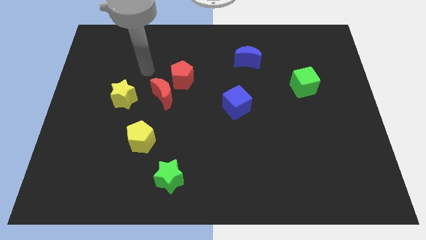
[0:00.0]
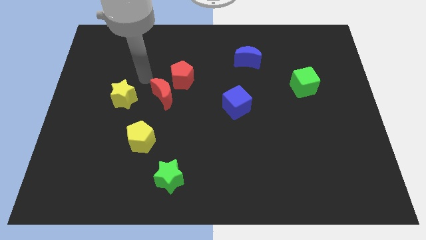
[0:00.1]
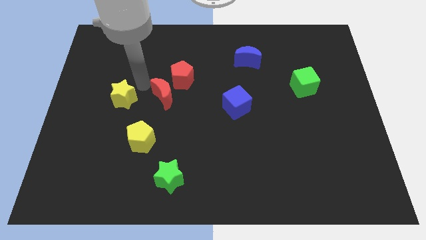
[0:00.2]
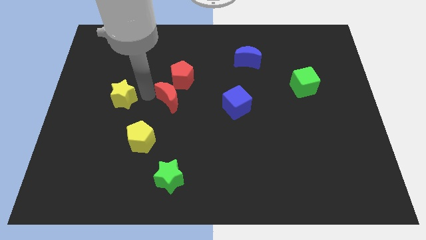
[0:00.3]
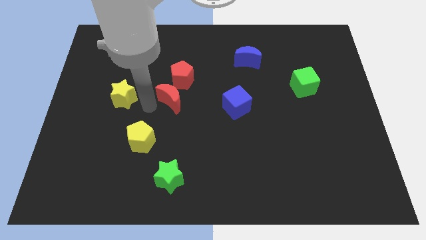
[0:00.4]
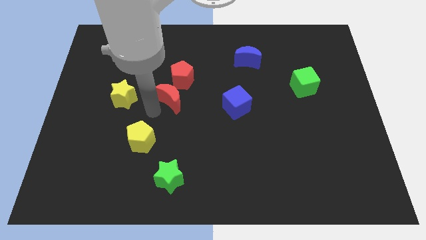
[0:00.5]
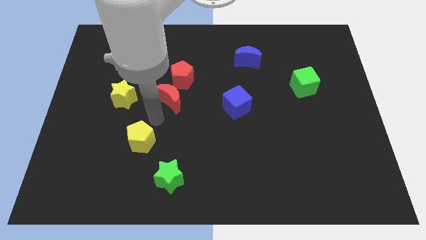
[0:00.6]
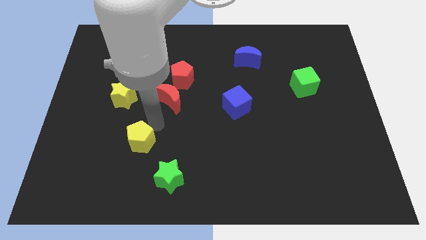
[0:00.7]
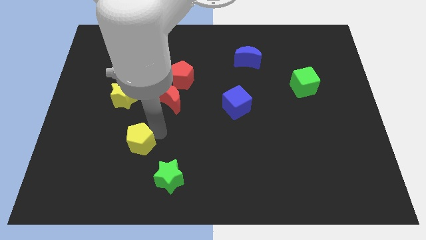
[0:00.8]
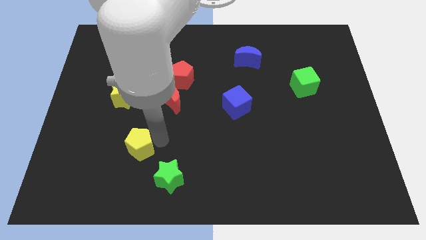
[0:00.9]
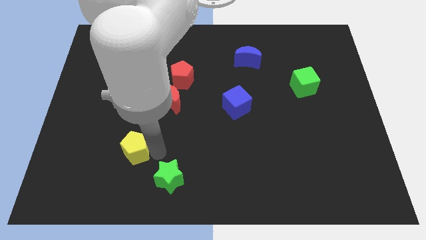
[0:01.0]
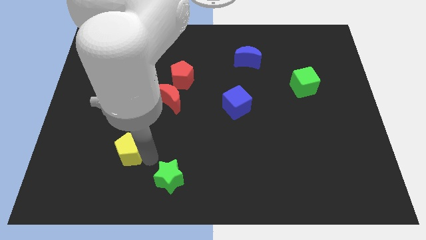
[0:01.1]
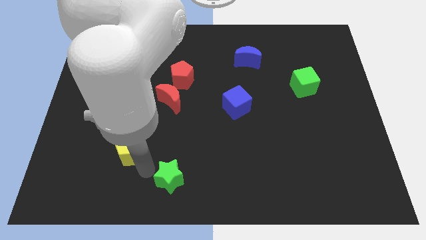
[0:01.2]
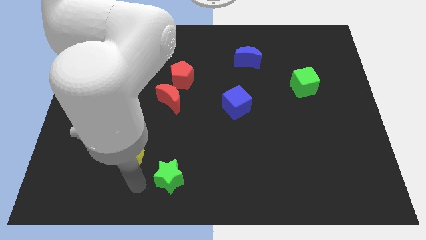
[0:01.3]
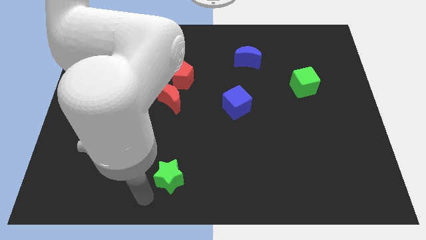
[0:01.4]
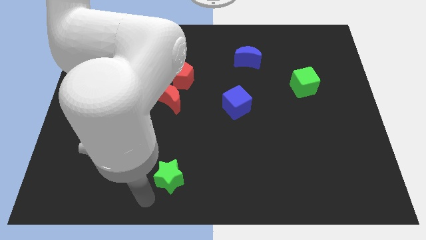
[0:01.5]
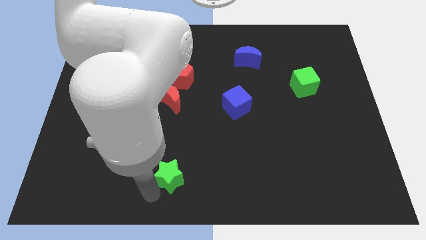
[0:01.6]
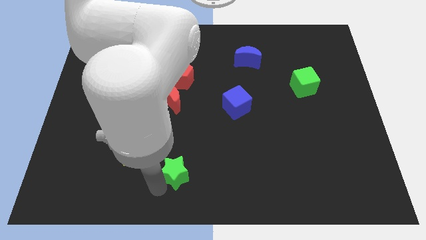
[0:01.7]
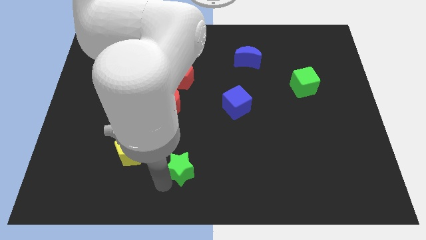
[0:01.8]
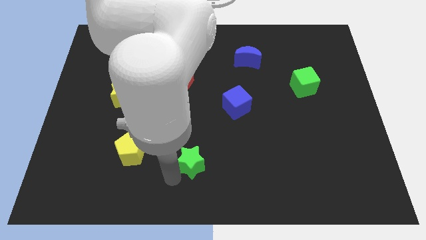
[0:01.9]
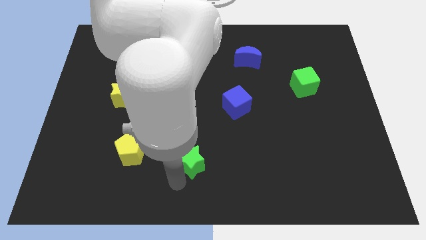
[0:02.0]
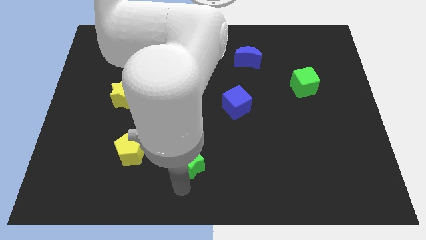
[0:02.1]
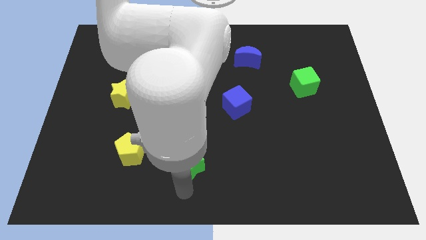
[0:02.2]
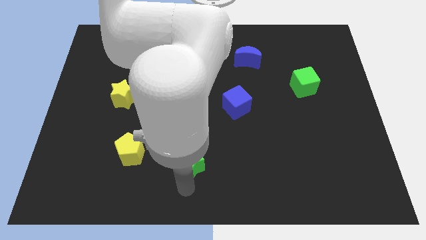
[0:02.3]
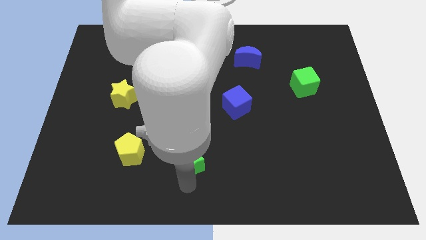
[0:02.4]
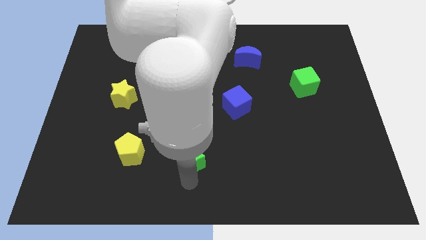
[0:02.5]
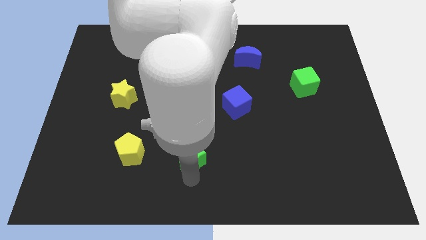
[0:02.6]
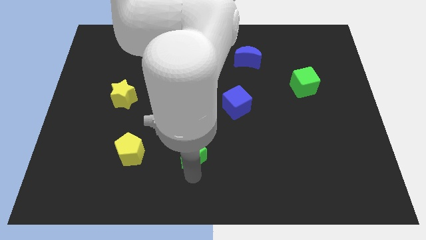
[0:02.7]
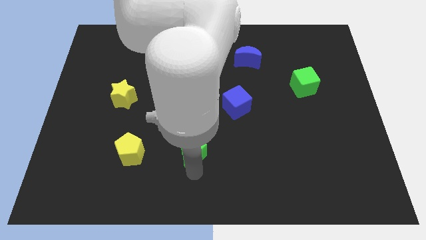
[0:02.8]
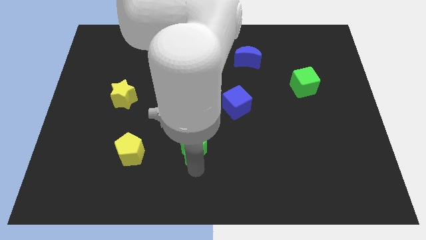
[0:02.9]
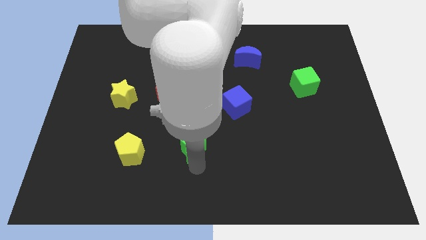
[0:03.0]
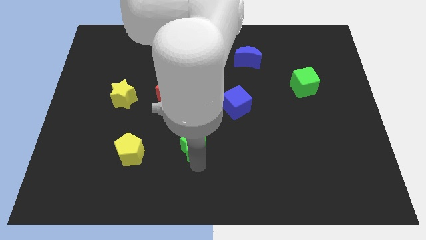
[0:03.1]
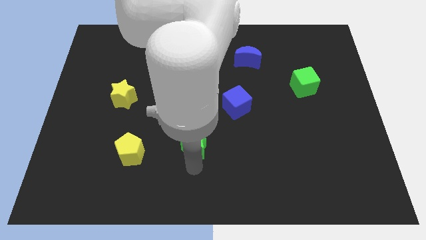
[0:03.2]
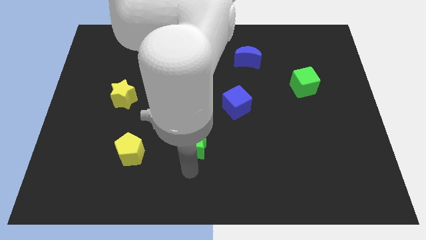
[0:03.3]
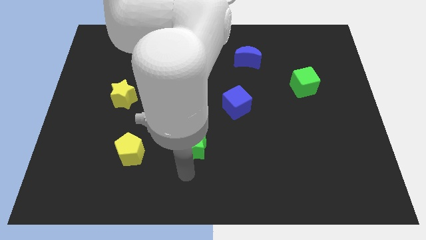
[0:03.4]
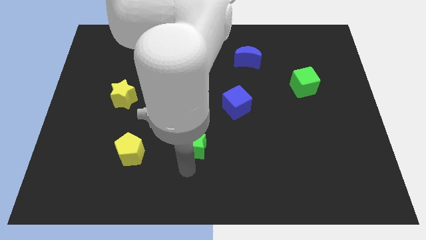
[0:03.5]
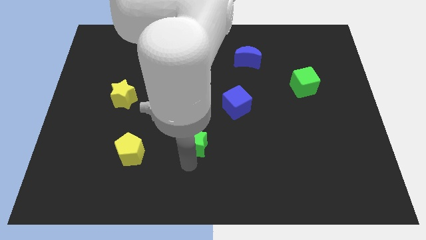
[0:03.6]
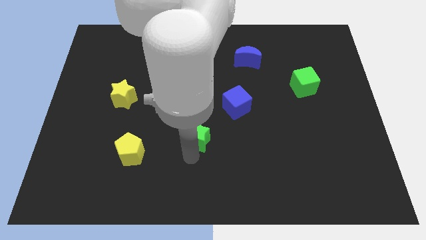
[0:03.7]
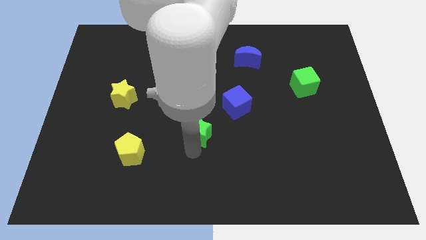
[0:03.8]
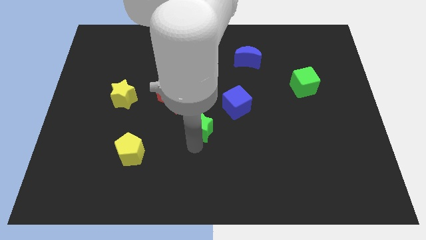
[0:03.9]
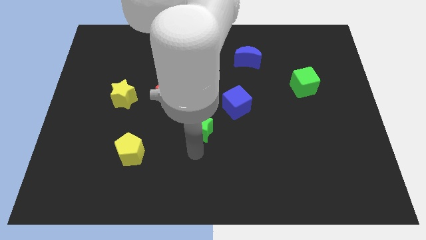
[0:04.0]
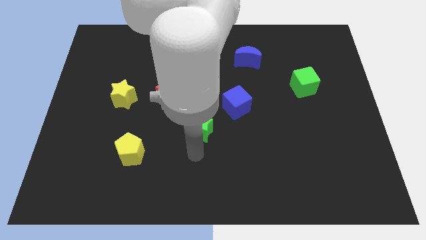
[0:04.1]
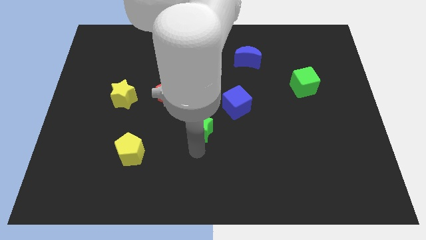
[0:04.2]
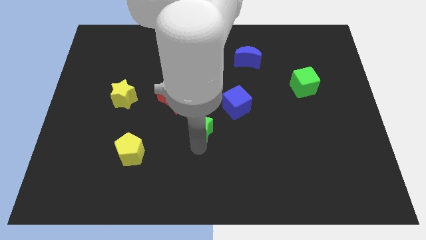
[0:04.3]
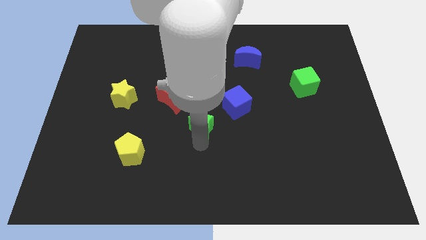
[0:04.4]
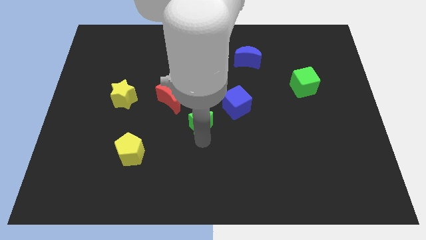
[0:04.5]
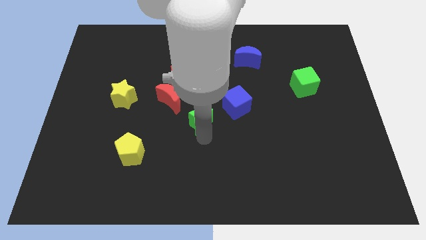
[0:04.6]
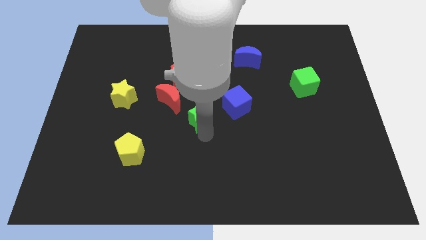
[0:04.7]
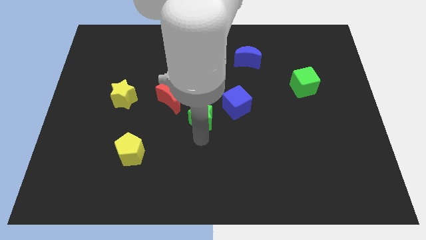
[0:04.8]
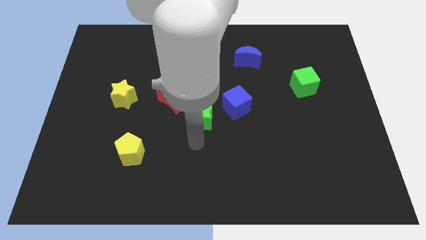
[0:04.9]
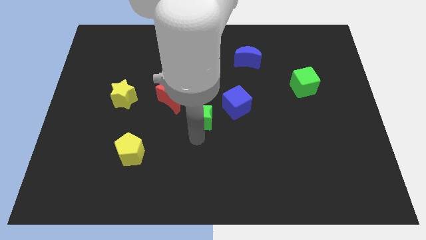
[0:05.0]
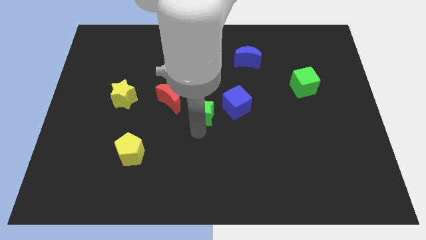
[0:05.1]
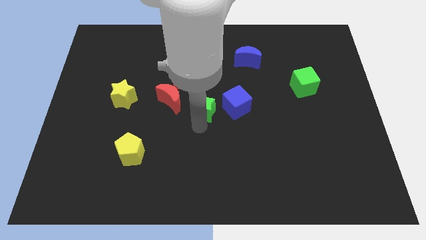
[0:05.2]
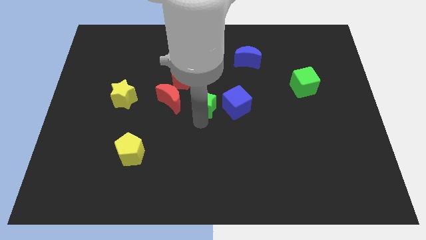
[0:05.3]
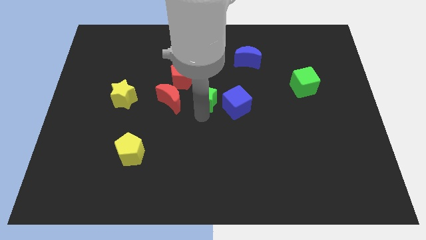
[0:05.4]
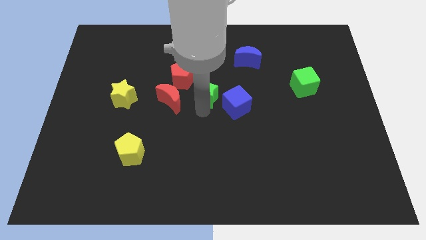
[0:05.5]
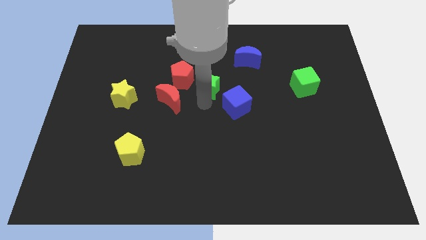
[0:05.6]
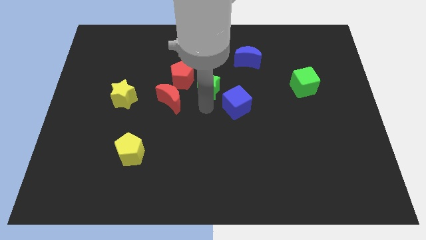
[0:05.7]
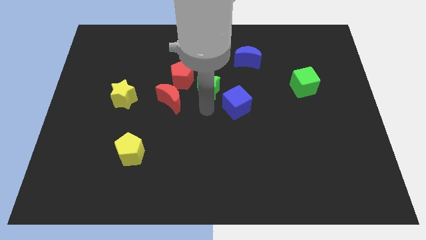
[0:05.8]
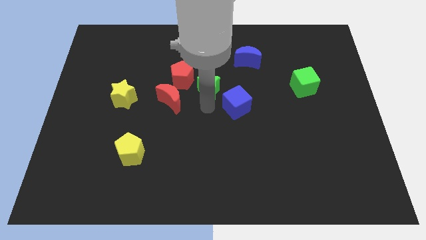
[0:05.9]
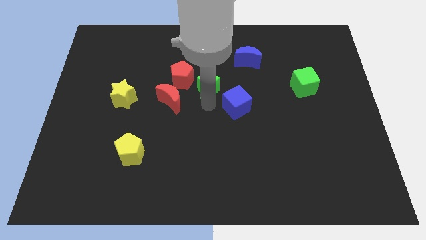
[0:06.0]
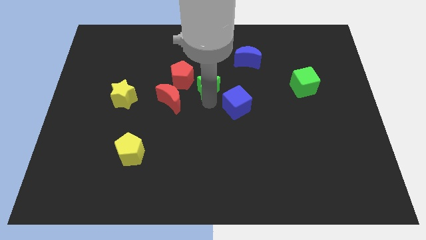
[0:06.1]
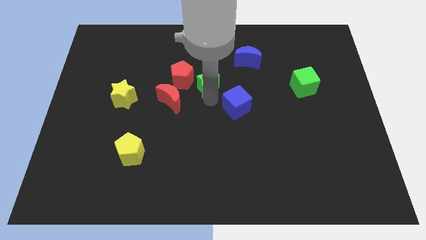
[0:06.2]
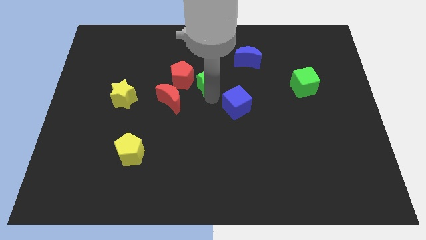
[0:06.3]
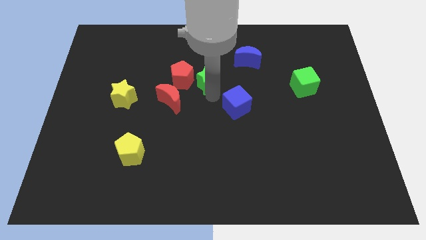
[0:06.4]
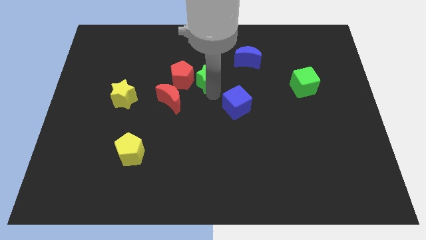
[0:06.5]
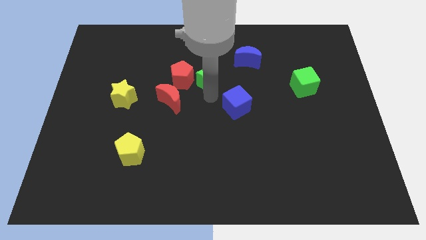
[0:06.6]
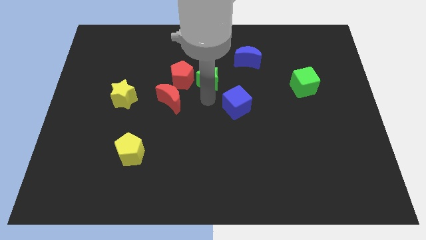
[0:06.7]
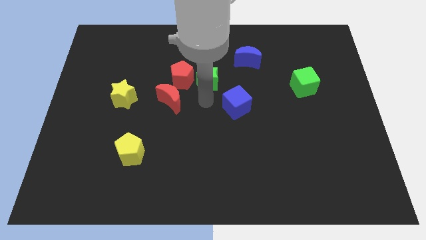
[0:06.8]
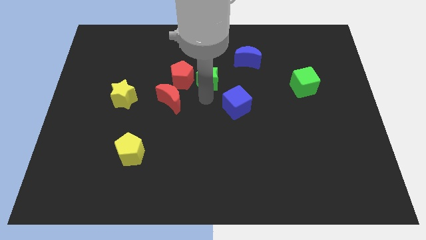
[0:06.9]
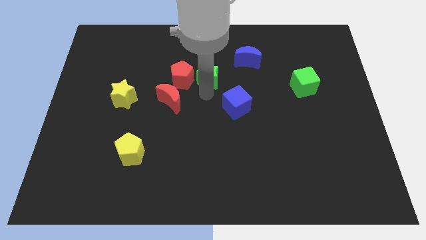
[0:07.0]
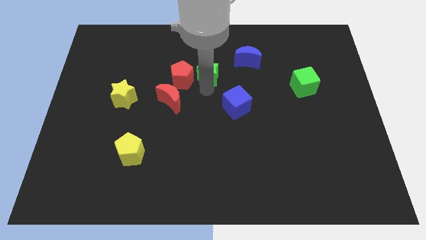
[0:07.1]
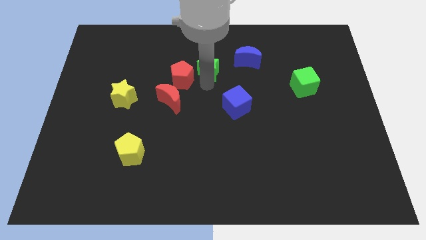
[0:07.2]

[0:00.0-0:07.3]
put the green star just left of the blue moon

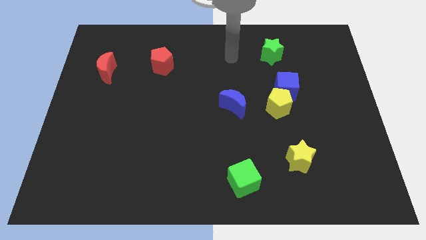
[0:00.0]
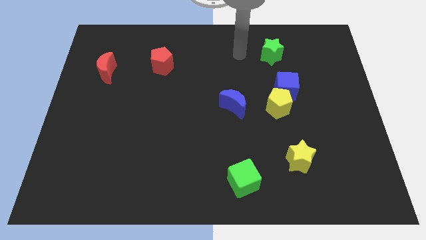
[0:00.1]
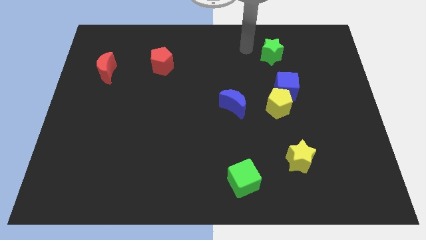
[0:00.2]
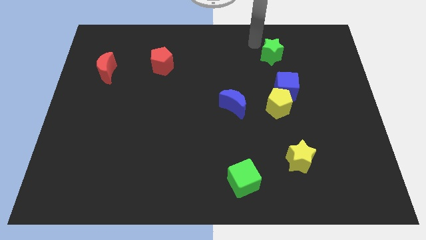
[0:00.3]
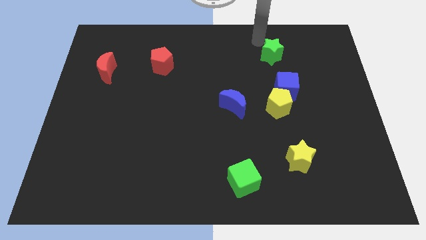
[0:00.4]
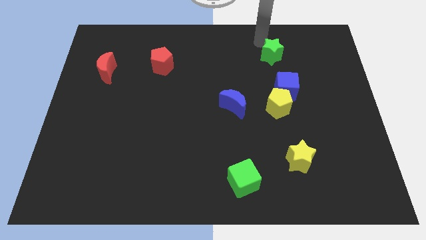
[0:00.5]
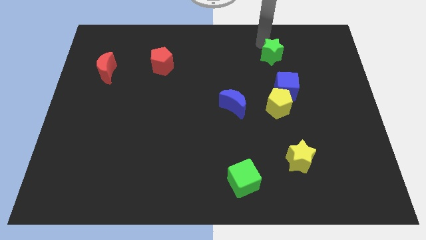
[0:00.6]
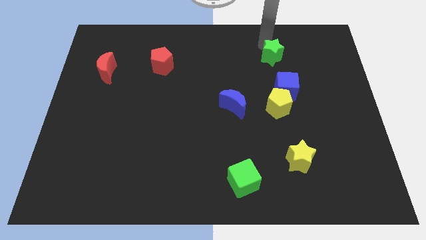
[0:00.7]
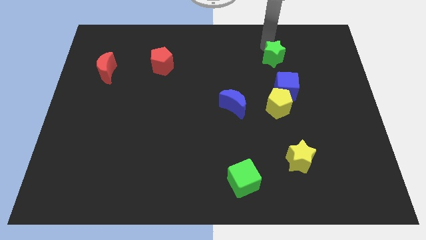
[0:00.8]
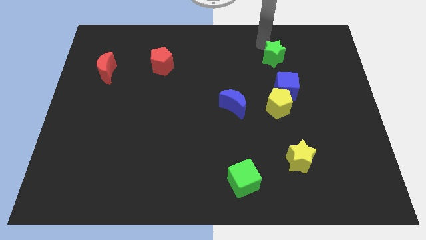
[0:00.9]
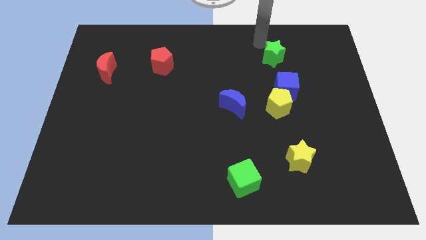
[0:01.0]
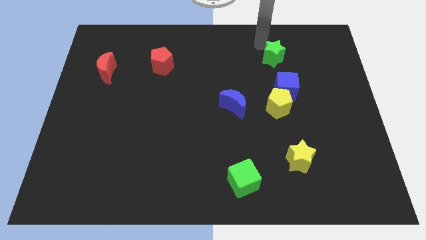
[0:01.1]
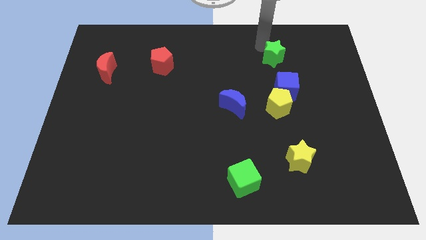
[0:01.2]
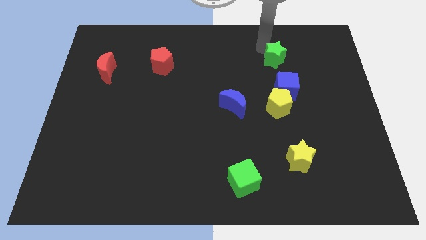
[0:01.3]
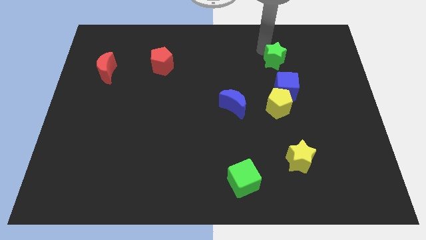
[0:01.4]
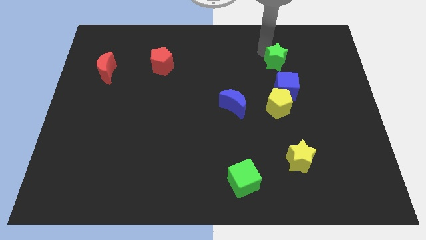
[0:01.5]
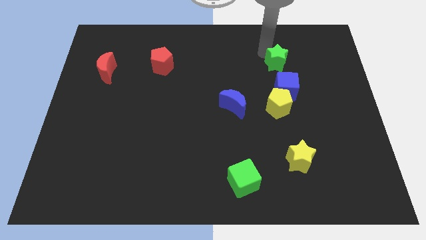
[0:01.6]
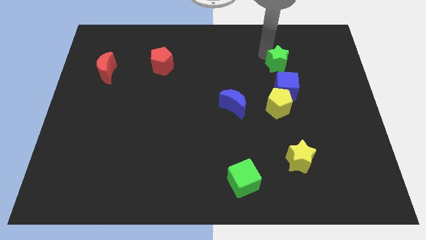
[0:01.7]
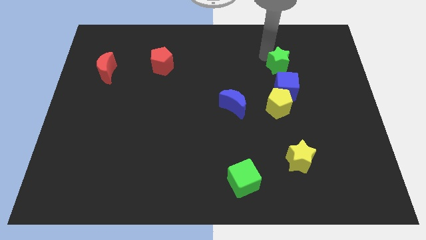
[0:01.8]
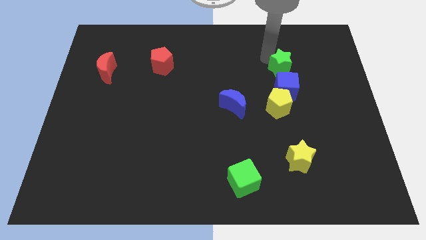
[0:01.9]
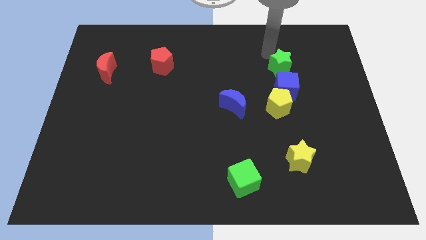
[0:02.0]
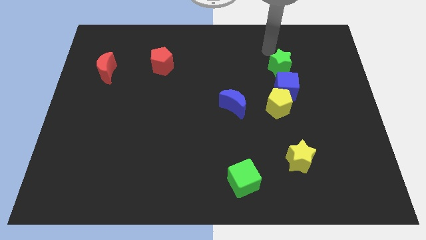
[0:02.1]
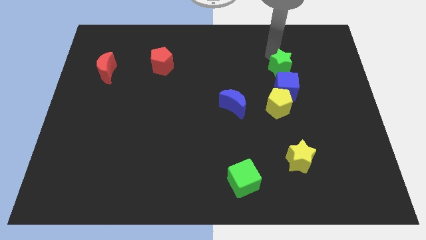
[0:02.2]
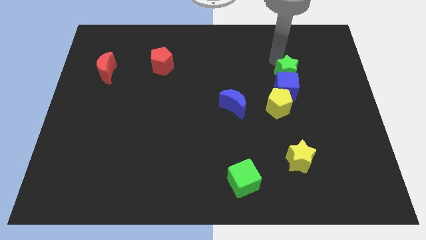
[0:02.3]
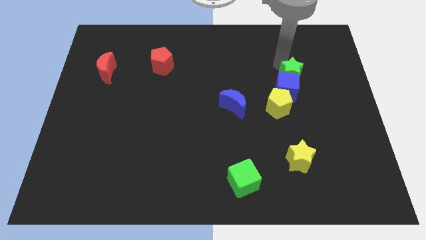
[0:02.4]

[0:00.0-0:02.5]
slide the green star to the top right of the yellow pentagon
